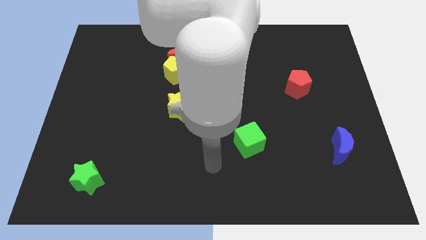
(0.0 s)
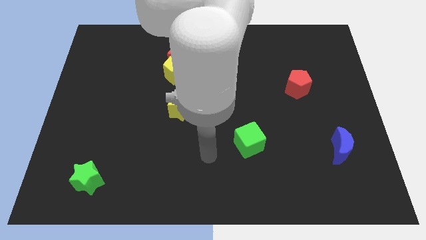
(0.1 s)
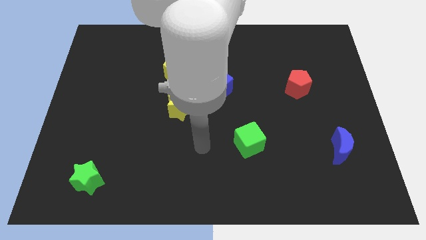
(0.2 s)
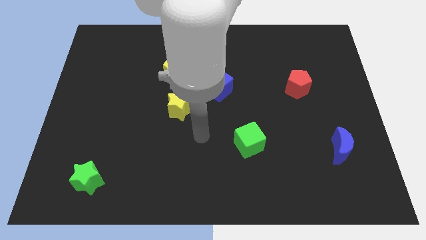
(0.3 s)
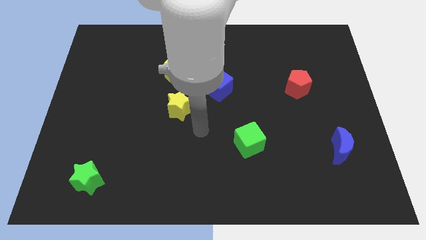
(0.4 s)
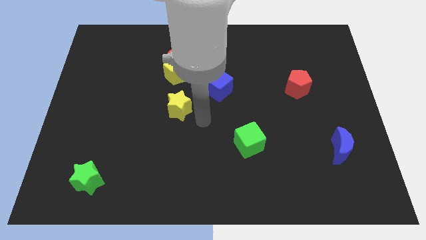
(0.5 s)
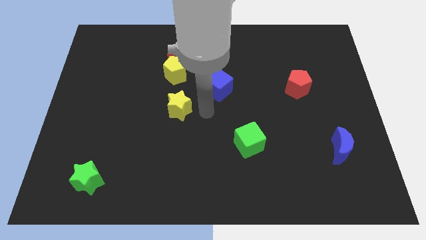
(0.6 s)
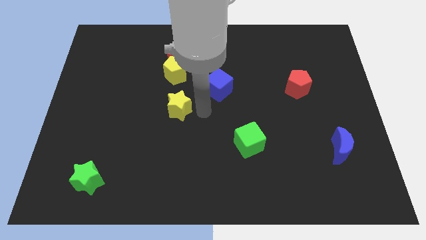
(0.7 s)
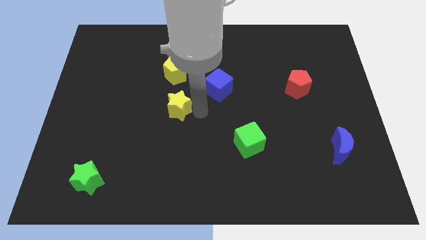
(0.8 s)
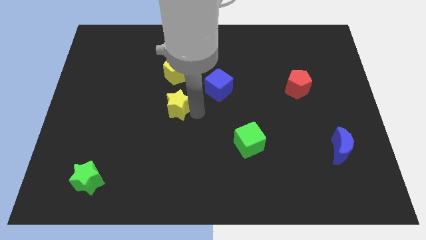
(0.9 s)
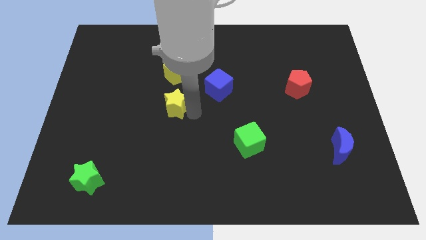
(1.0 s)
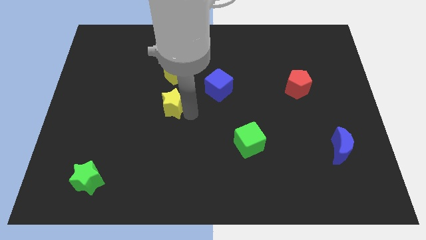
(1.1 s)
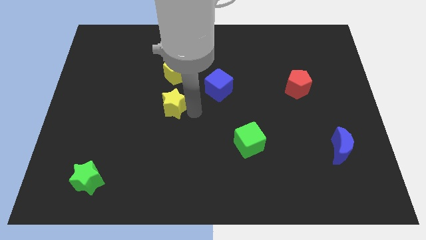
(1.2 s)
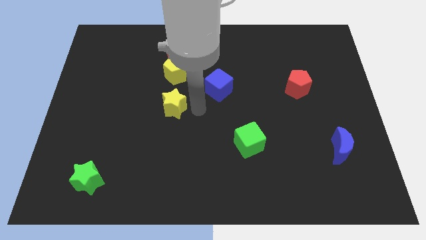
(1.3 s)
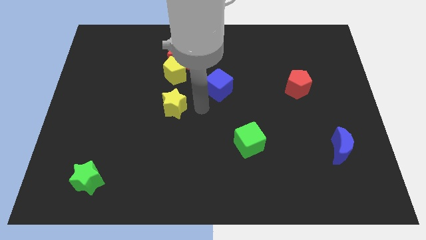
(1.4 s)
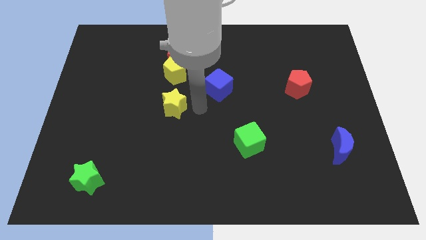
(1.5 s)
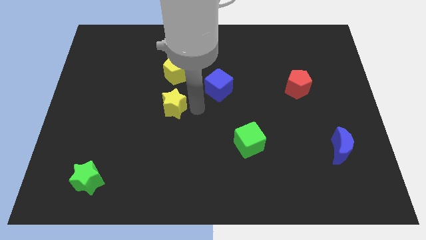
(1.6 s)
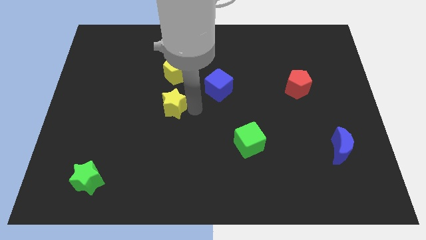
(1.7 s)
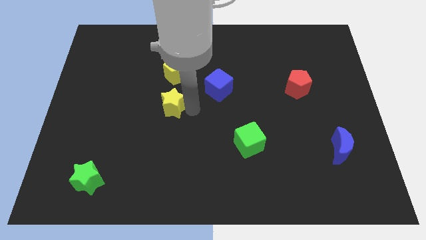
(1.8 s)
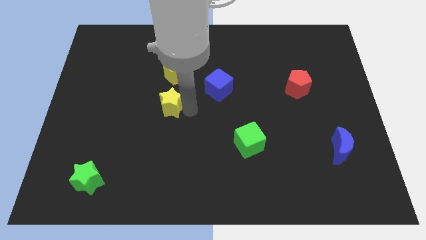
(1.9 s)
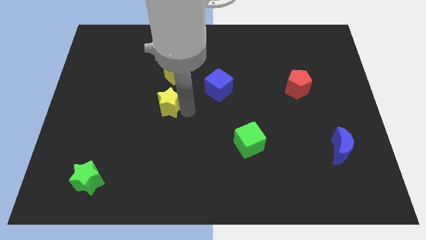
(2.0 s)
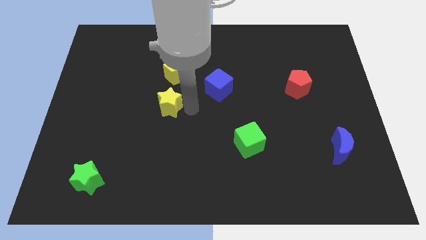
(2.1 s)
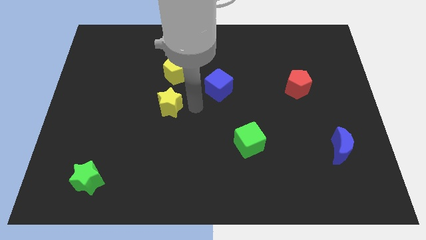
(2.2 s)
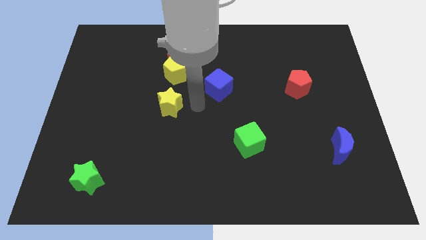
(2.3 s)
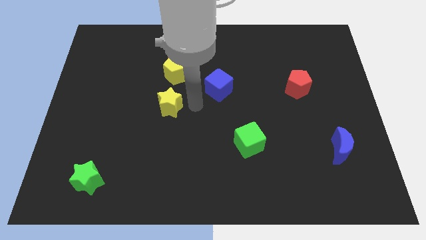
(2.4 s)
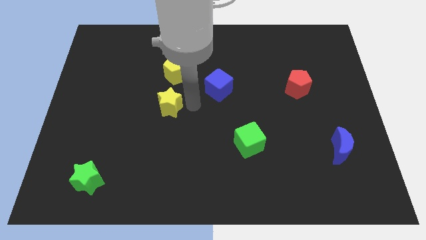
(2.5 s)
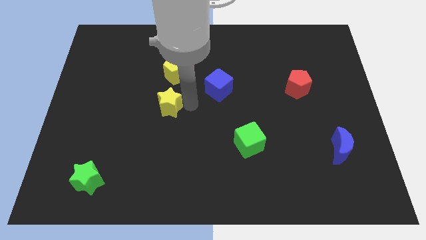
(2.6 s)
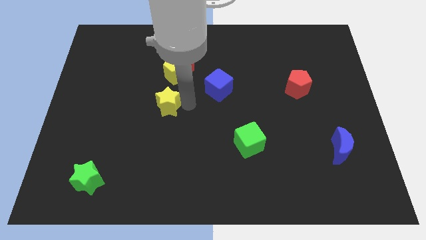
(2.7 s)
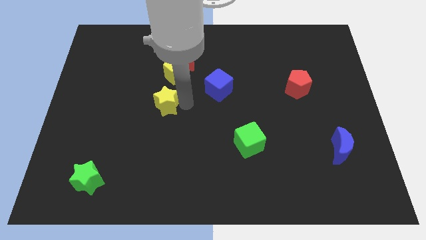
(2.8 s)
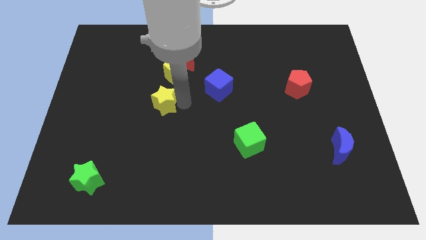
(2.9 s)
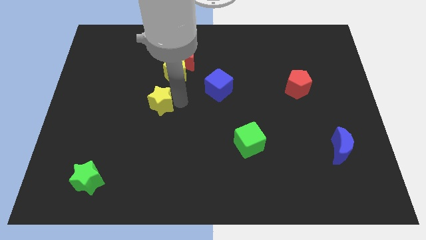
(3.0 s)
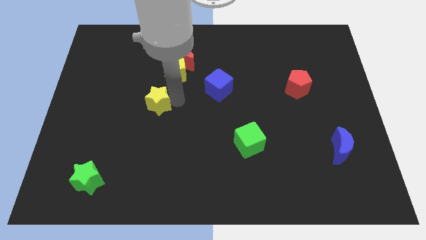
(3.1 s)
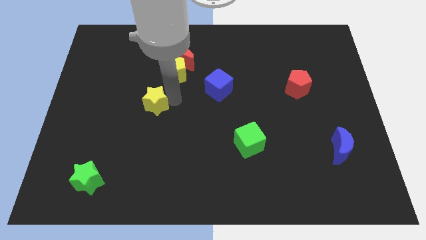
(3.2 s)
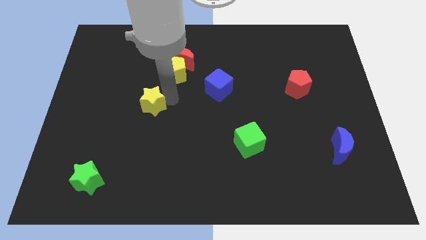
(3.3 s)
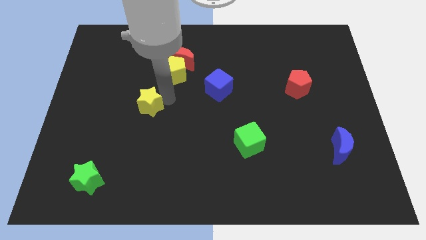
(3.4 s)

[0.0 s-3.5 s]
slightly push the yellow star to the left

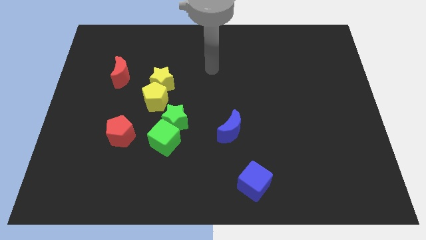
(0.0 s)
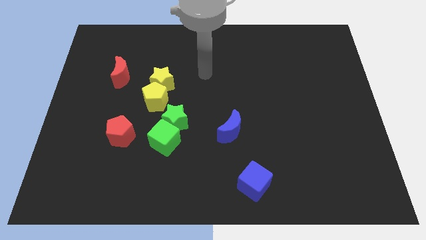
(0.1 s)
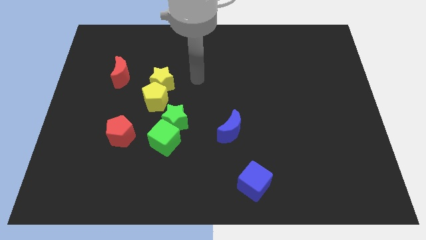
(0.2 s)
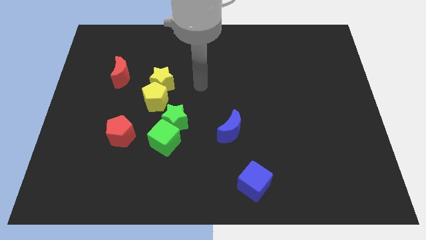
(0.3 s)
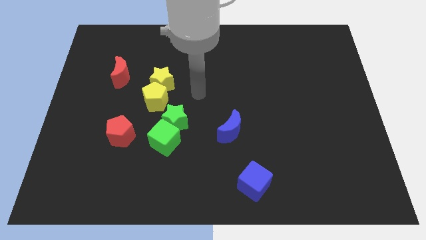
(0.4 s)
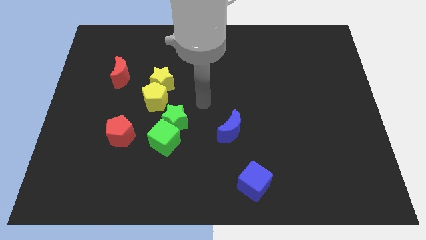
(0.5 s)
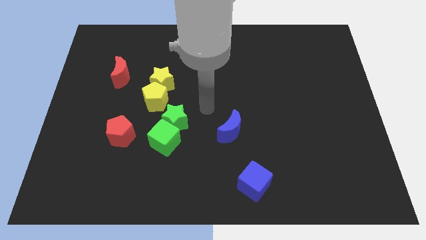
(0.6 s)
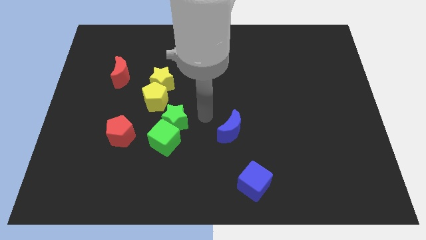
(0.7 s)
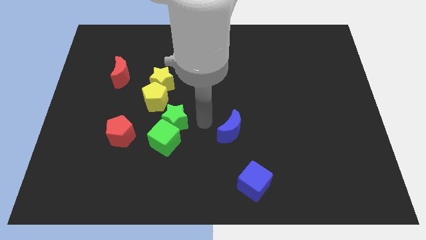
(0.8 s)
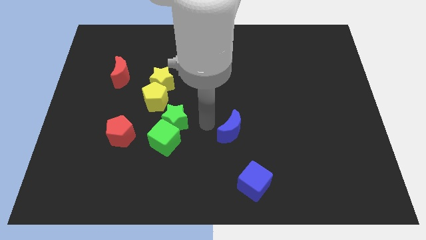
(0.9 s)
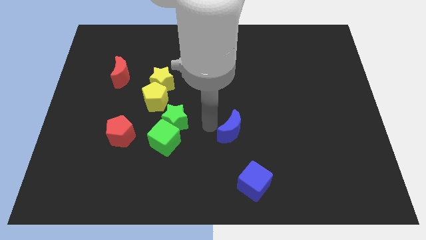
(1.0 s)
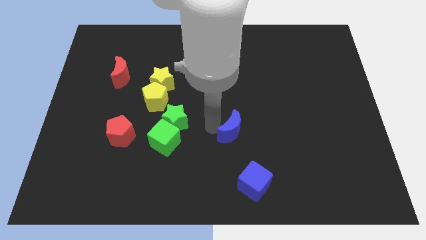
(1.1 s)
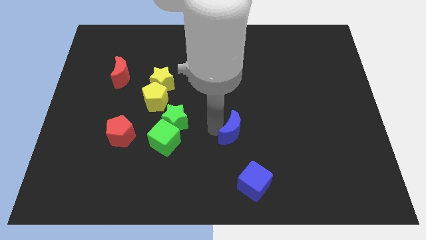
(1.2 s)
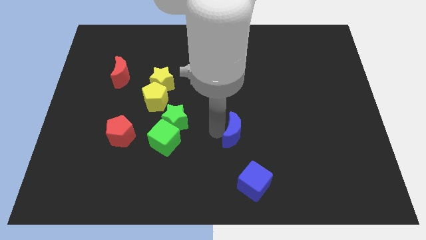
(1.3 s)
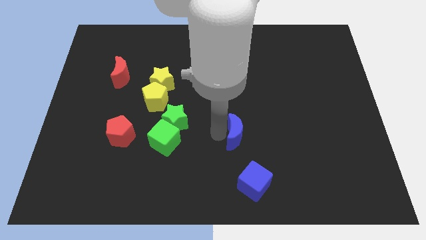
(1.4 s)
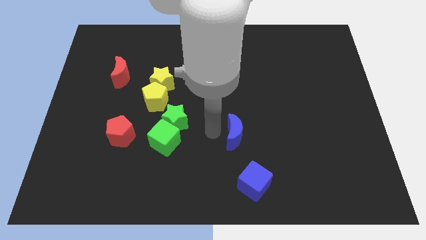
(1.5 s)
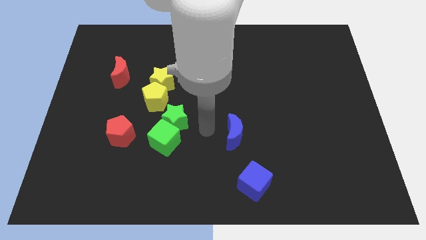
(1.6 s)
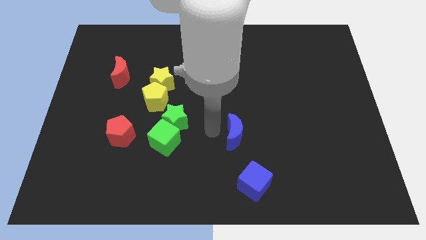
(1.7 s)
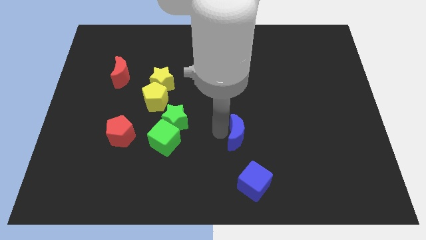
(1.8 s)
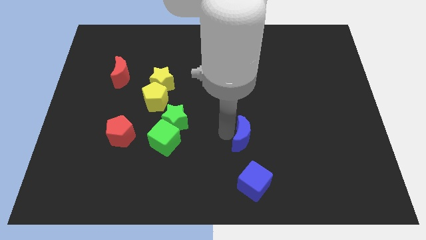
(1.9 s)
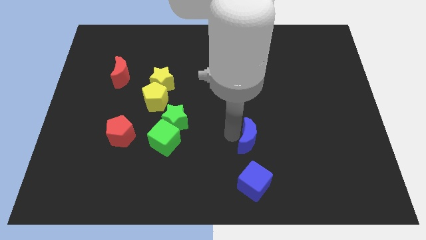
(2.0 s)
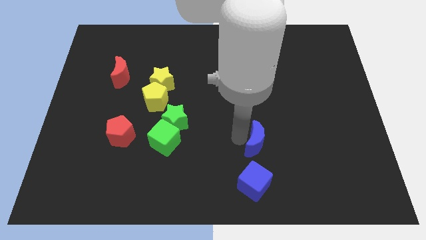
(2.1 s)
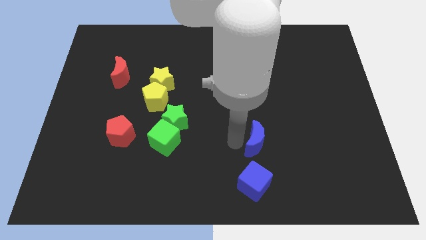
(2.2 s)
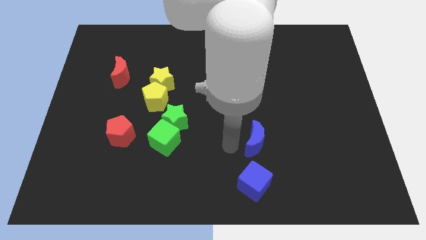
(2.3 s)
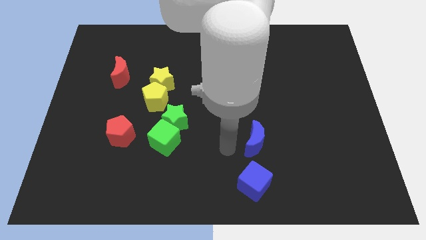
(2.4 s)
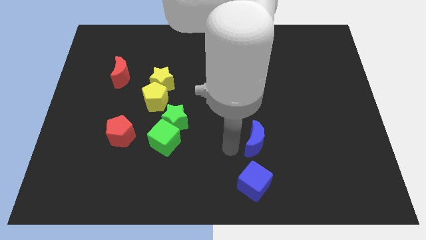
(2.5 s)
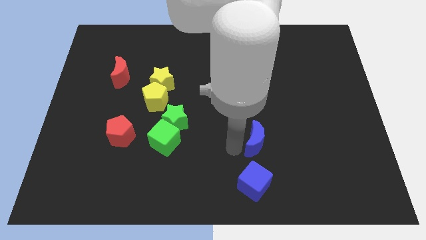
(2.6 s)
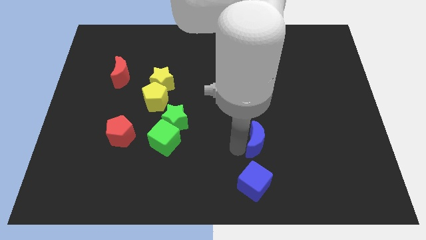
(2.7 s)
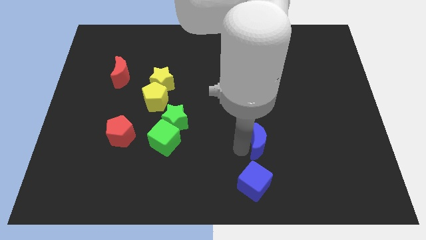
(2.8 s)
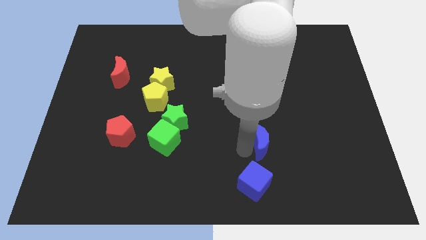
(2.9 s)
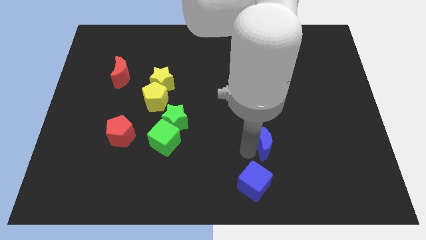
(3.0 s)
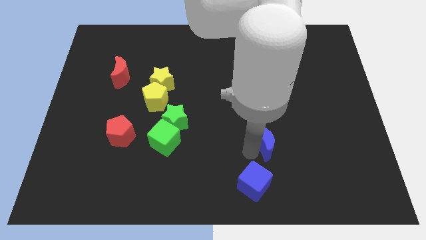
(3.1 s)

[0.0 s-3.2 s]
slide the blue moon right a bit

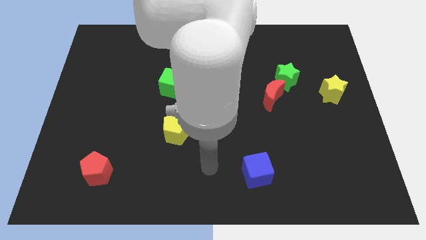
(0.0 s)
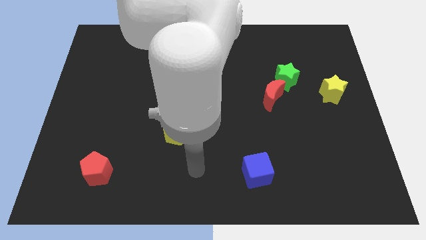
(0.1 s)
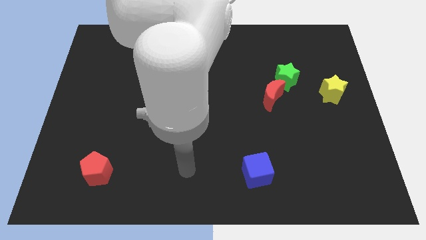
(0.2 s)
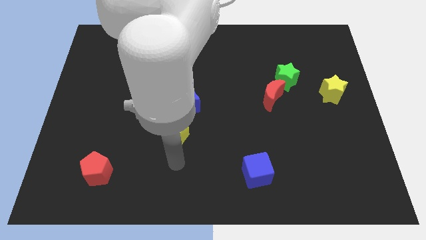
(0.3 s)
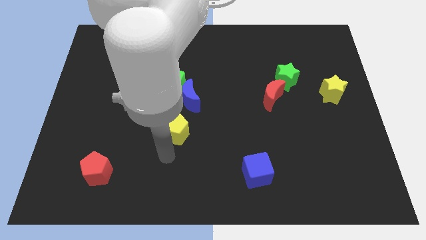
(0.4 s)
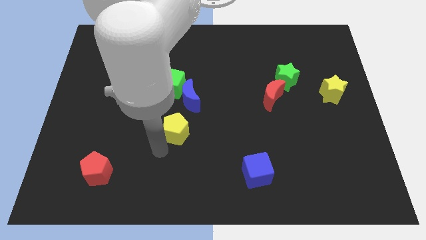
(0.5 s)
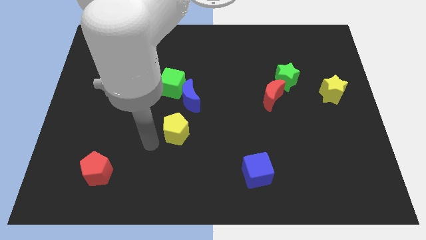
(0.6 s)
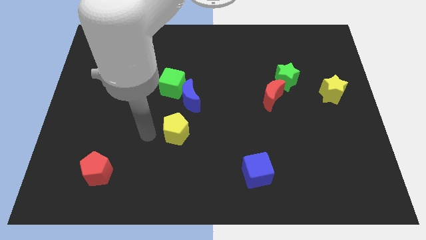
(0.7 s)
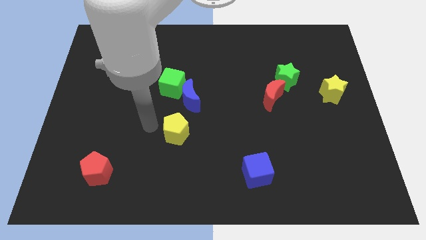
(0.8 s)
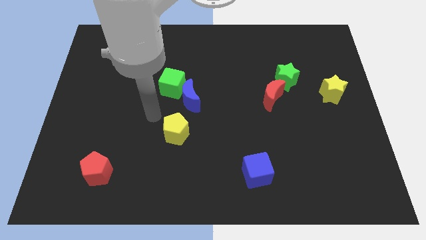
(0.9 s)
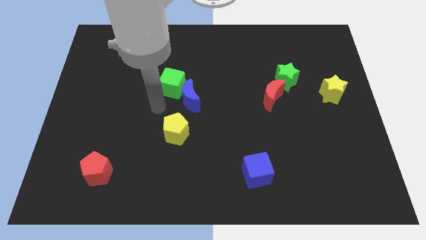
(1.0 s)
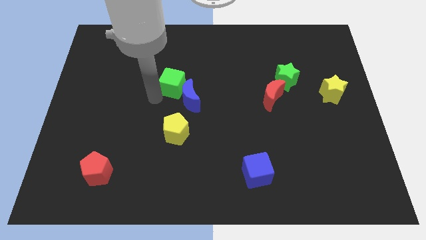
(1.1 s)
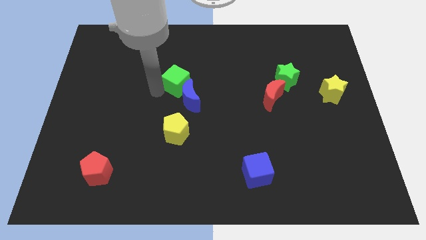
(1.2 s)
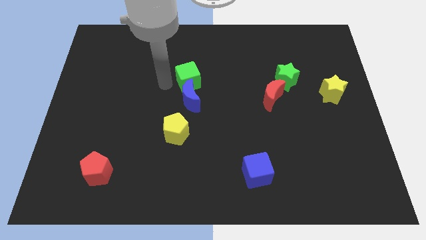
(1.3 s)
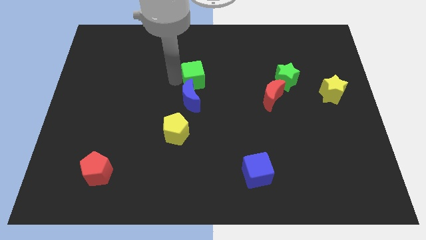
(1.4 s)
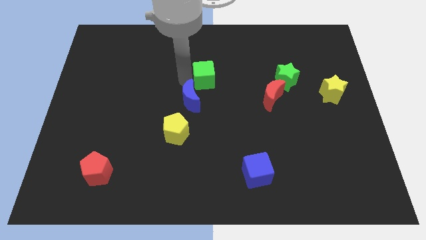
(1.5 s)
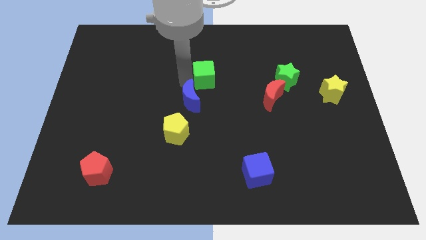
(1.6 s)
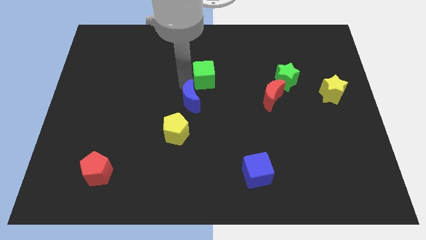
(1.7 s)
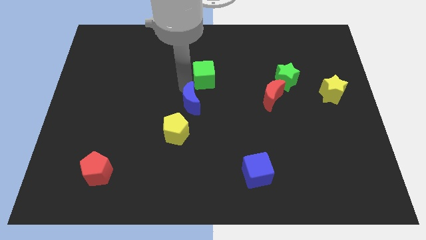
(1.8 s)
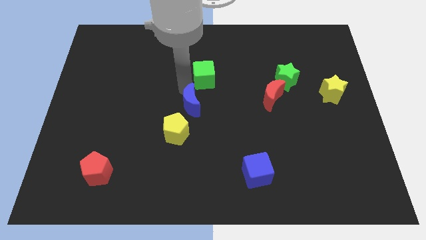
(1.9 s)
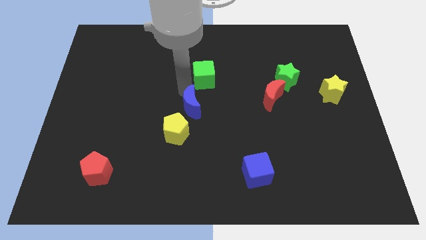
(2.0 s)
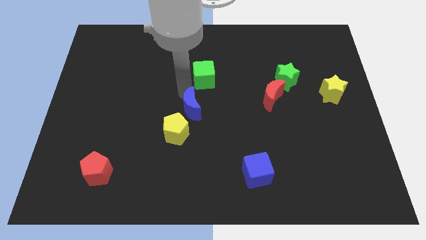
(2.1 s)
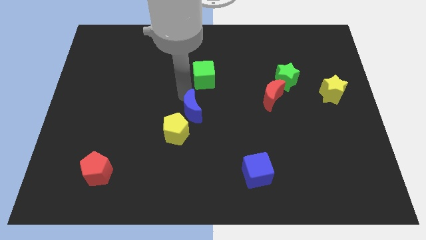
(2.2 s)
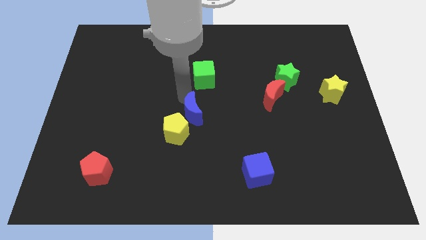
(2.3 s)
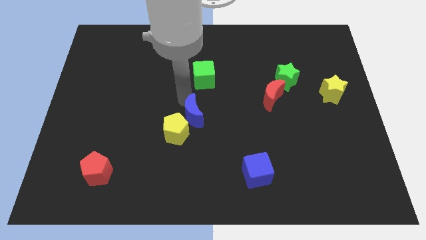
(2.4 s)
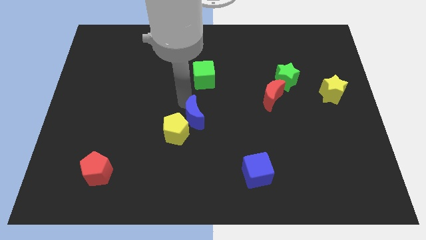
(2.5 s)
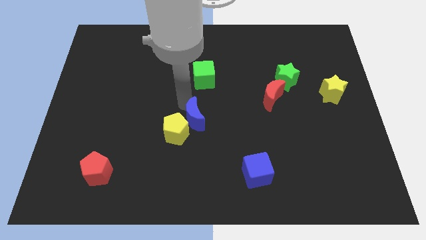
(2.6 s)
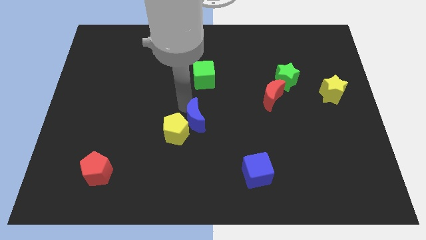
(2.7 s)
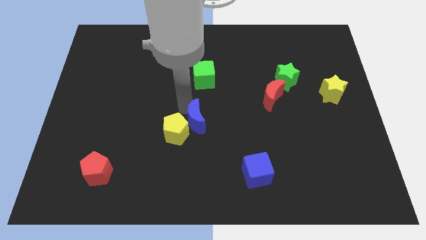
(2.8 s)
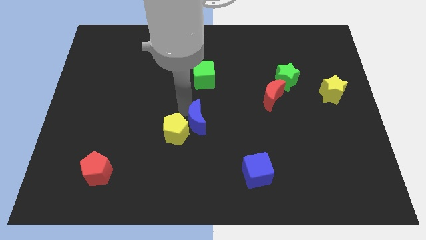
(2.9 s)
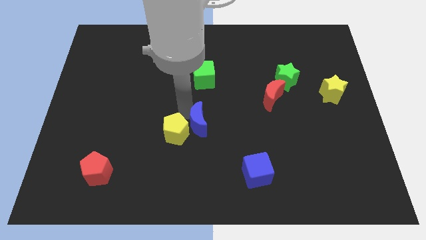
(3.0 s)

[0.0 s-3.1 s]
push the blue moon down a bit
